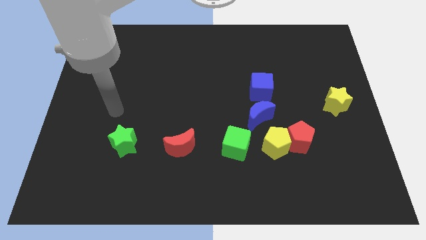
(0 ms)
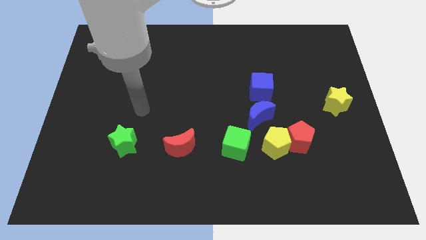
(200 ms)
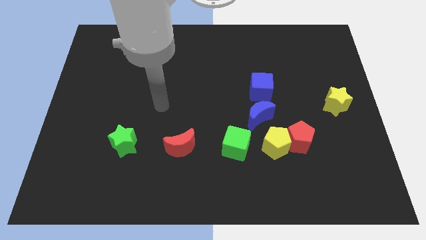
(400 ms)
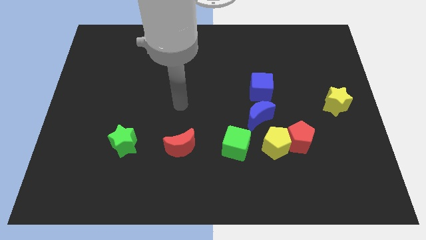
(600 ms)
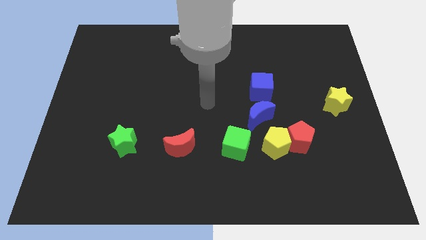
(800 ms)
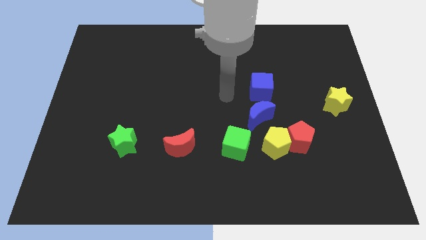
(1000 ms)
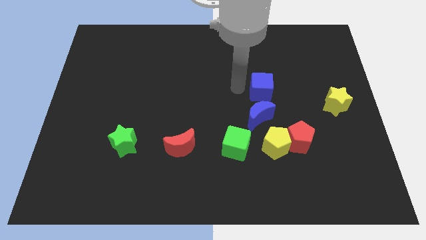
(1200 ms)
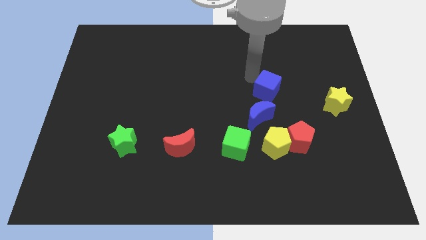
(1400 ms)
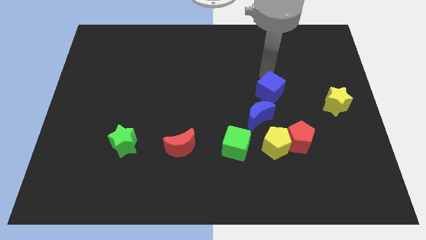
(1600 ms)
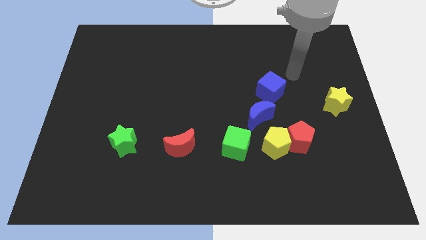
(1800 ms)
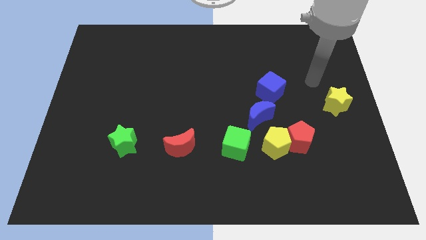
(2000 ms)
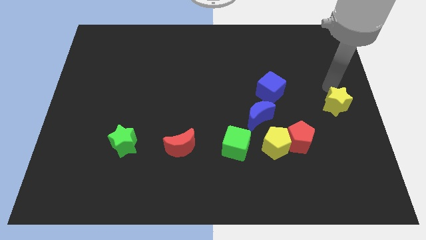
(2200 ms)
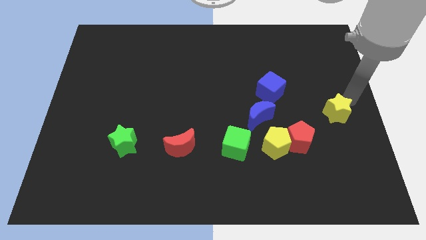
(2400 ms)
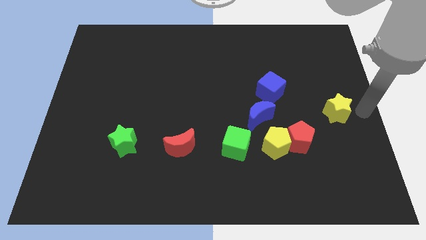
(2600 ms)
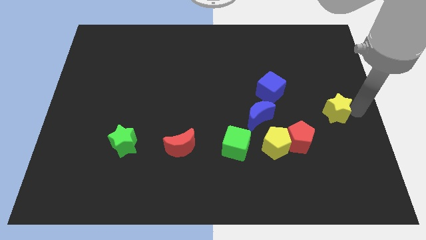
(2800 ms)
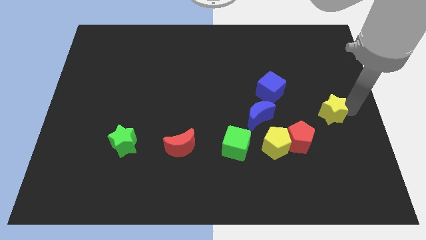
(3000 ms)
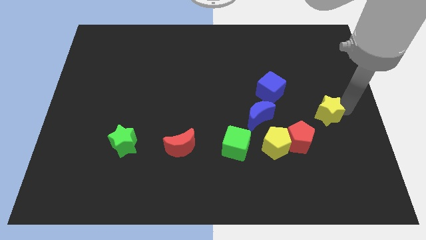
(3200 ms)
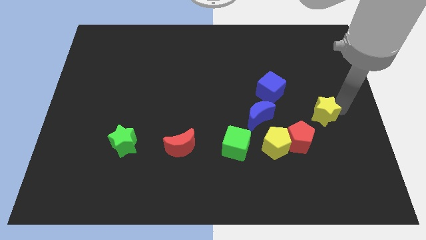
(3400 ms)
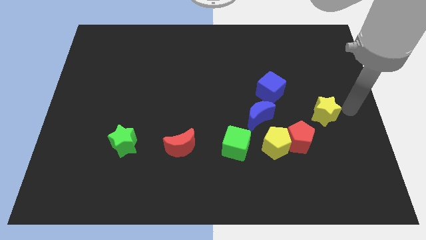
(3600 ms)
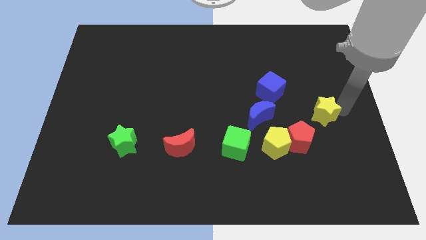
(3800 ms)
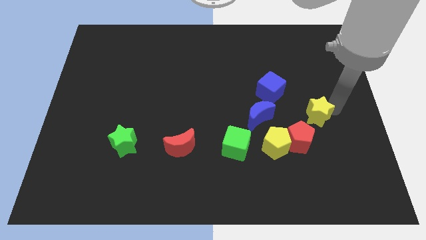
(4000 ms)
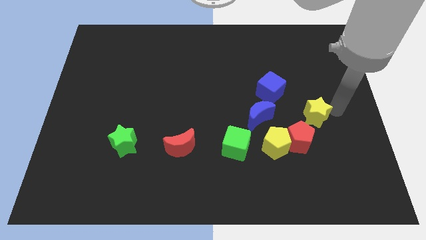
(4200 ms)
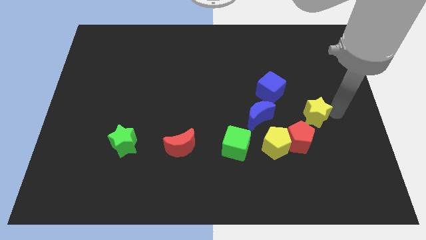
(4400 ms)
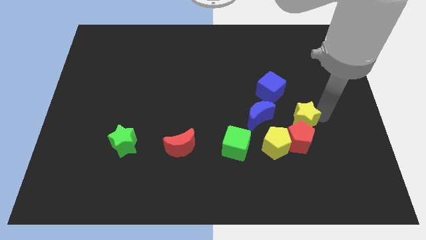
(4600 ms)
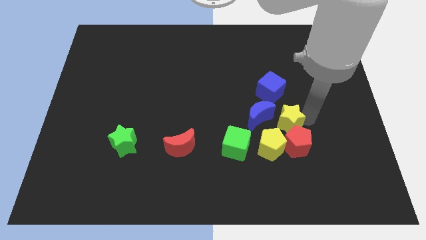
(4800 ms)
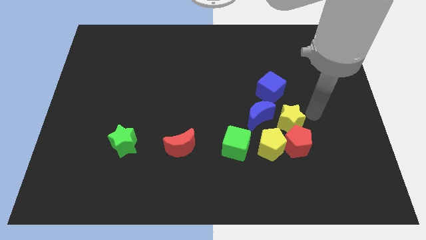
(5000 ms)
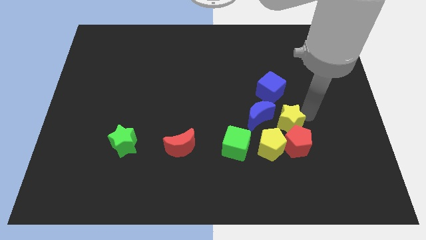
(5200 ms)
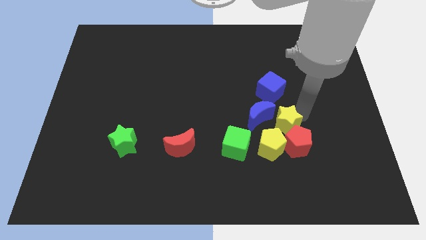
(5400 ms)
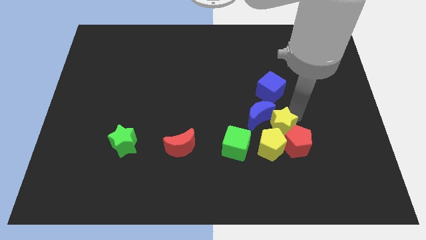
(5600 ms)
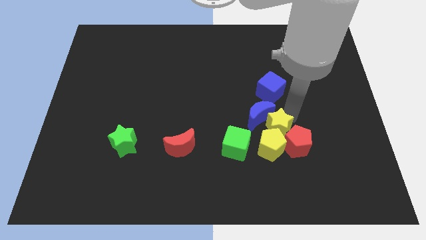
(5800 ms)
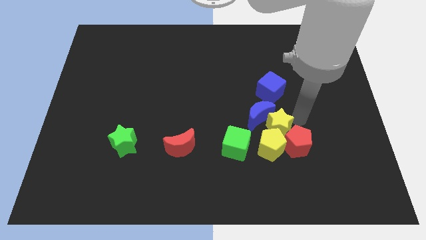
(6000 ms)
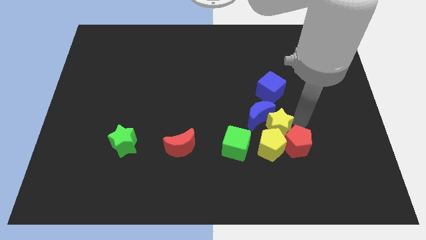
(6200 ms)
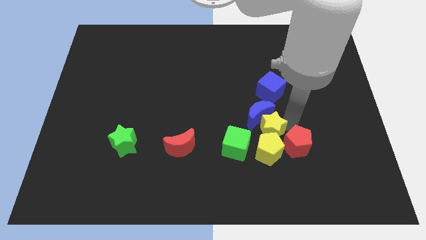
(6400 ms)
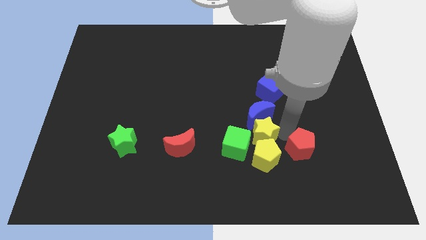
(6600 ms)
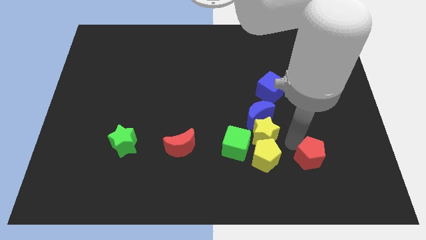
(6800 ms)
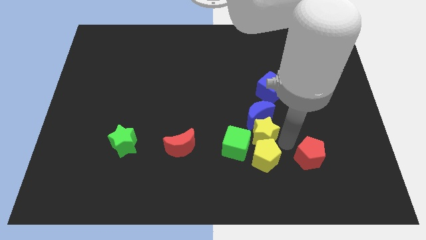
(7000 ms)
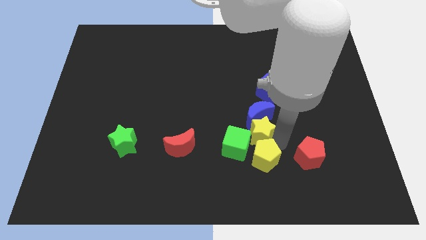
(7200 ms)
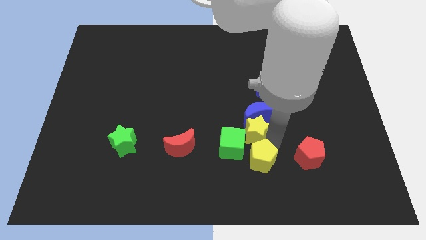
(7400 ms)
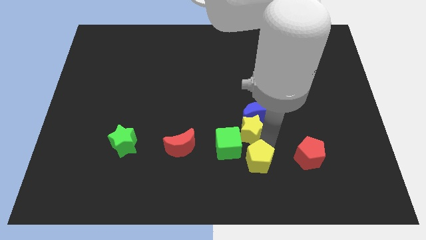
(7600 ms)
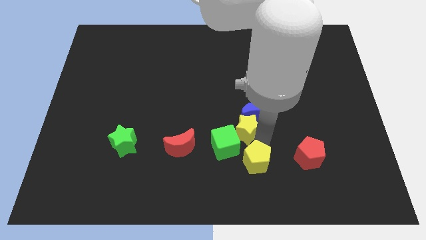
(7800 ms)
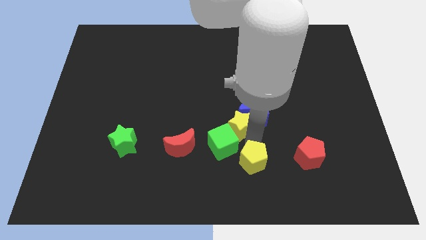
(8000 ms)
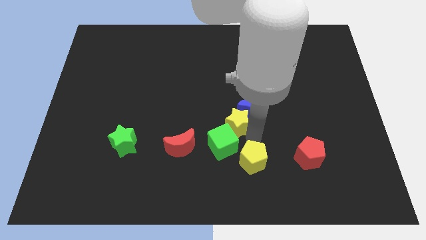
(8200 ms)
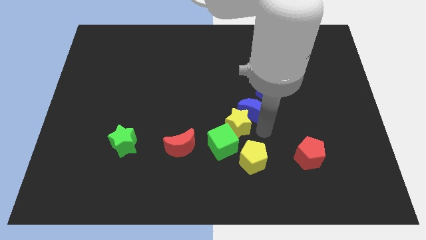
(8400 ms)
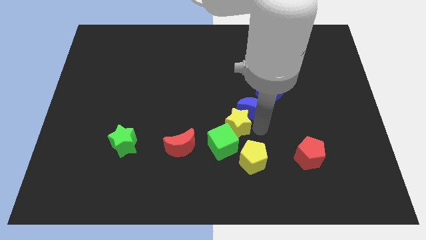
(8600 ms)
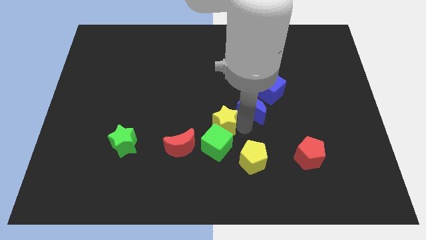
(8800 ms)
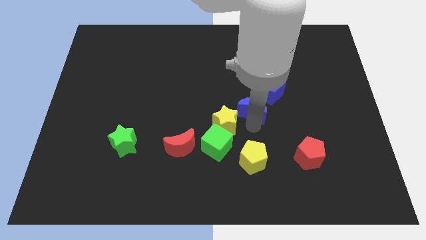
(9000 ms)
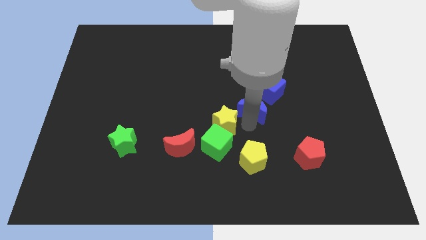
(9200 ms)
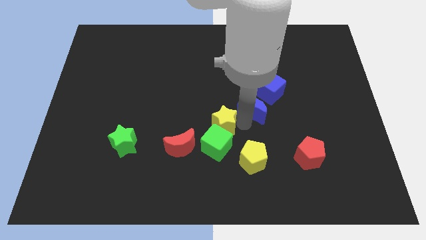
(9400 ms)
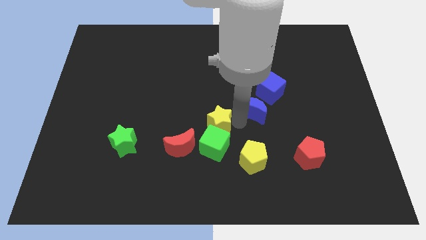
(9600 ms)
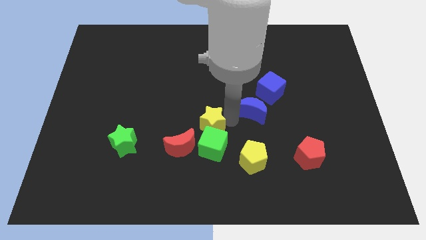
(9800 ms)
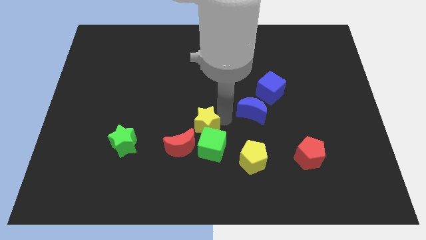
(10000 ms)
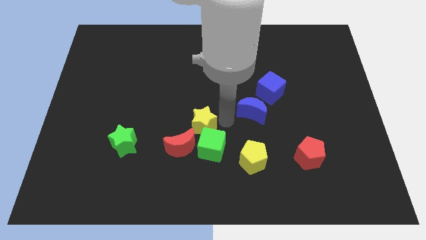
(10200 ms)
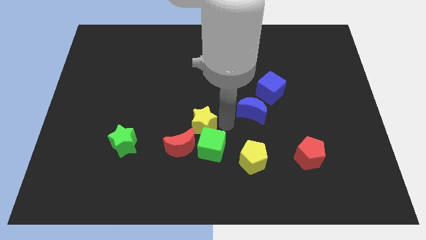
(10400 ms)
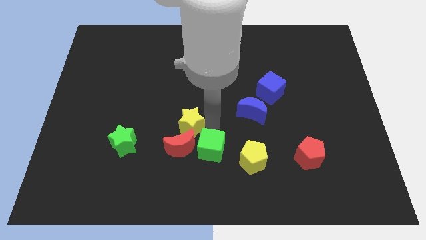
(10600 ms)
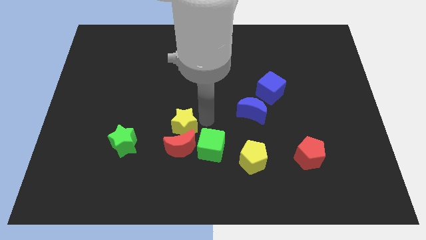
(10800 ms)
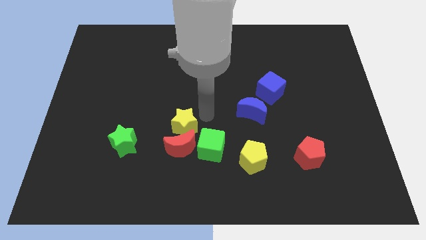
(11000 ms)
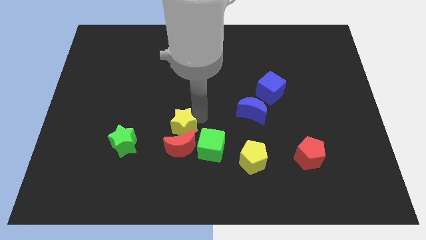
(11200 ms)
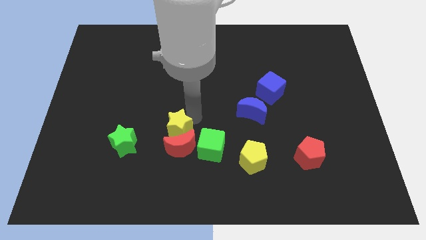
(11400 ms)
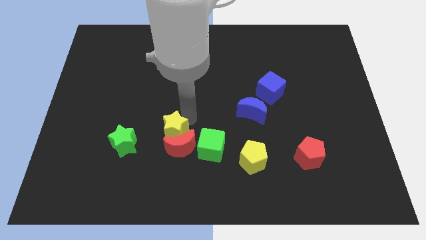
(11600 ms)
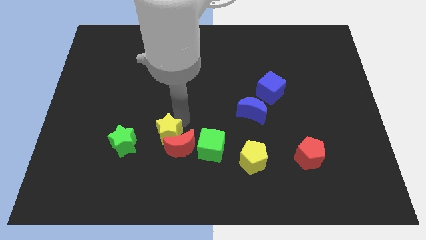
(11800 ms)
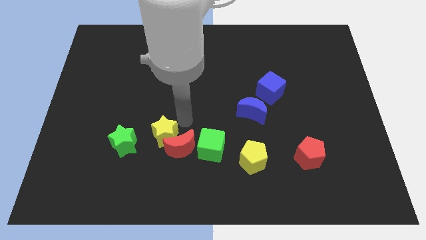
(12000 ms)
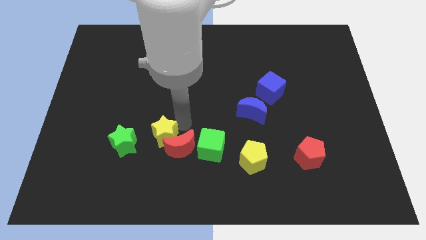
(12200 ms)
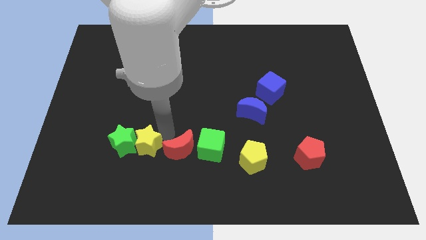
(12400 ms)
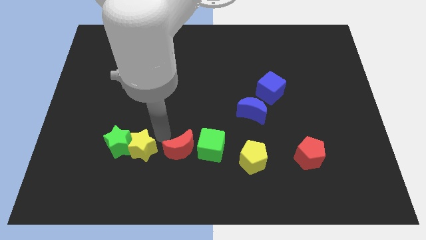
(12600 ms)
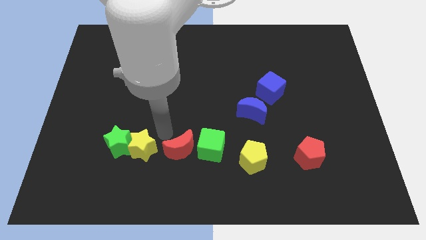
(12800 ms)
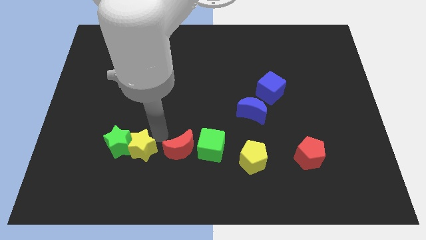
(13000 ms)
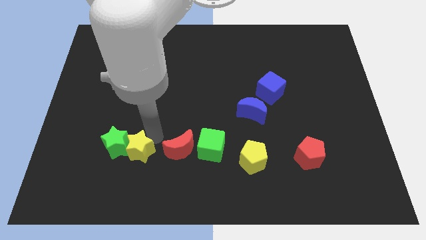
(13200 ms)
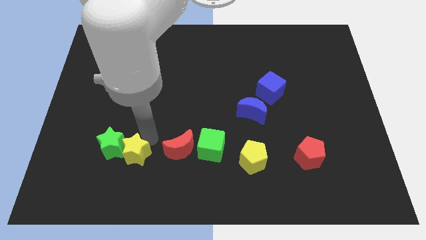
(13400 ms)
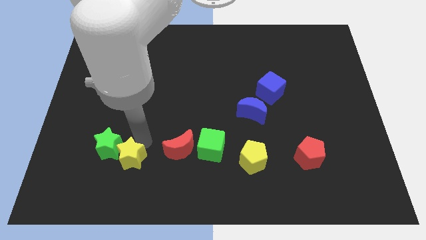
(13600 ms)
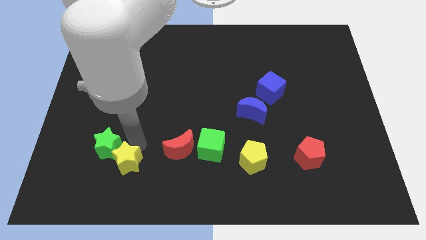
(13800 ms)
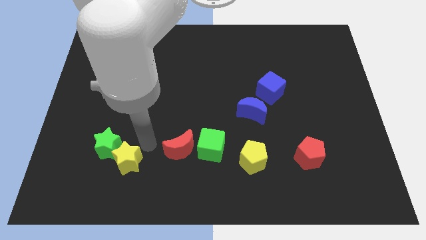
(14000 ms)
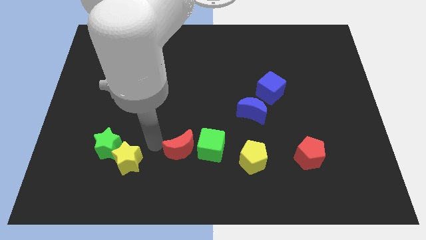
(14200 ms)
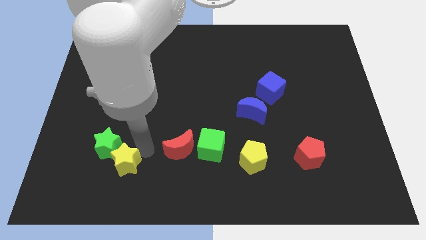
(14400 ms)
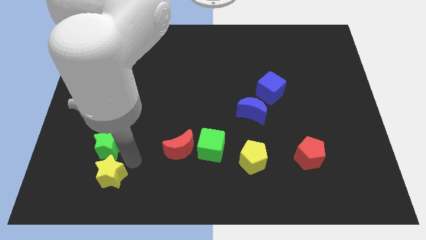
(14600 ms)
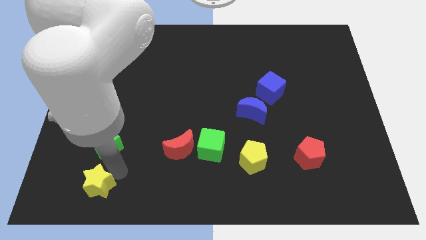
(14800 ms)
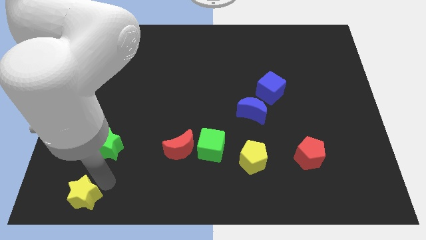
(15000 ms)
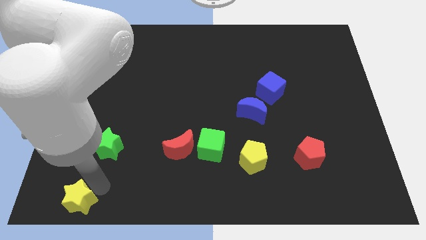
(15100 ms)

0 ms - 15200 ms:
move the yellow star to the bottom left of the board
